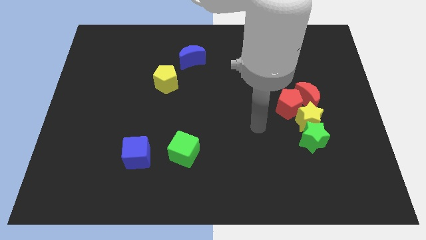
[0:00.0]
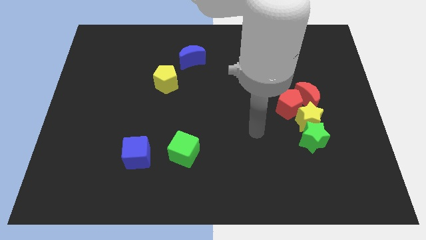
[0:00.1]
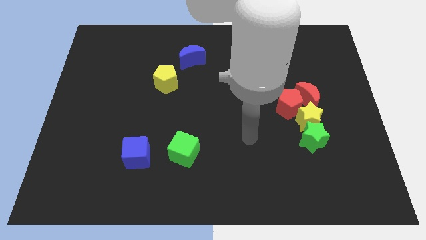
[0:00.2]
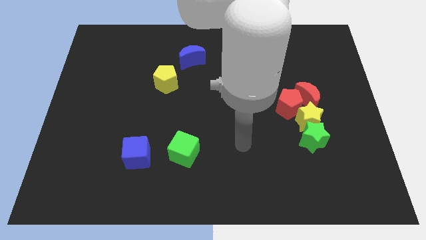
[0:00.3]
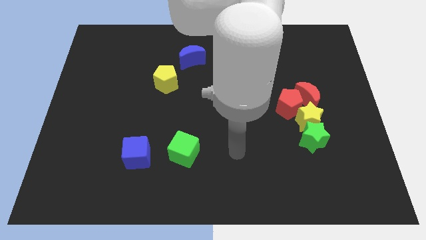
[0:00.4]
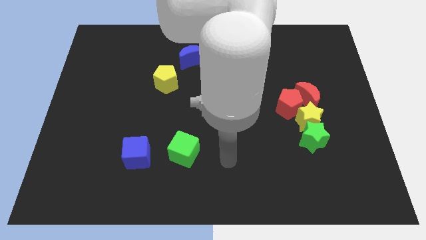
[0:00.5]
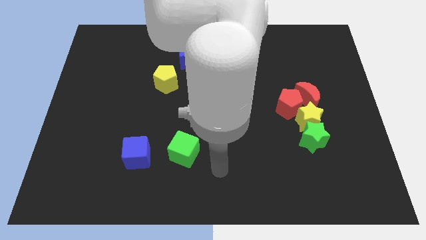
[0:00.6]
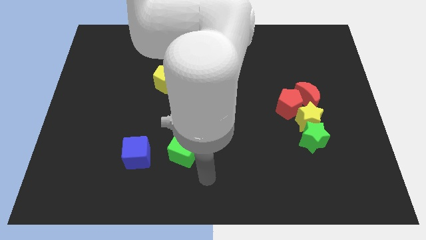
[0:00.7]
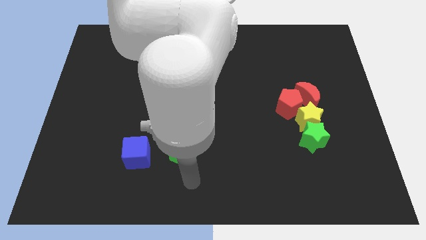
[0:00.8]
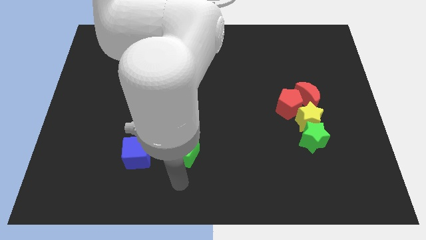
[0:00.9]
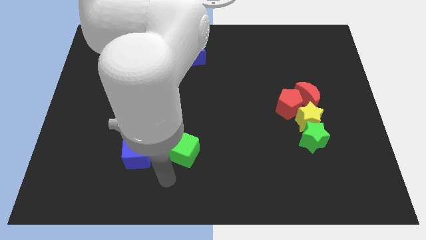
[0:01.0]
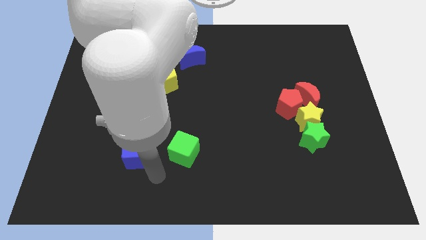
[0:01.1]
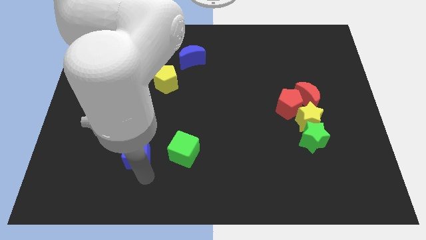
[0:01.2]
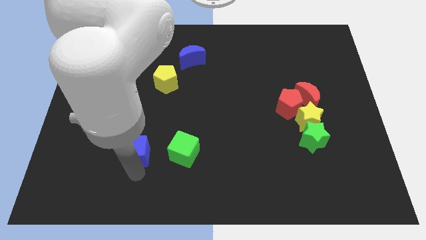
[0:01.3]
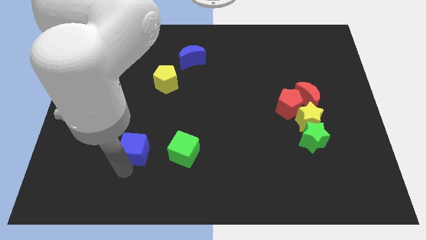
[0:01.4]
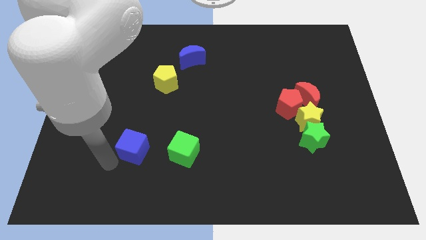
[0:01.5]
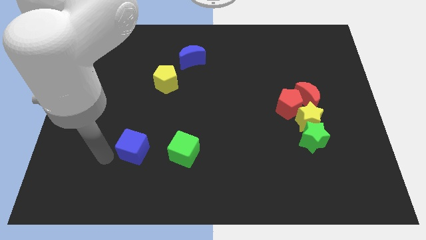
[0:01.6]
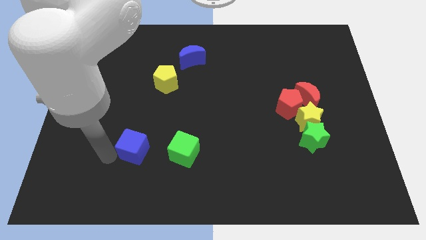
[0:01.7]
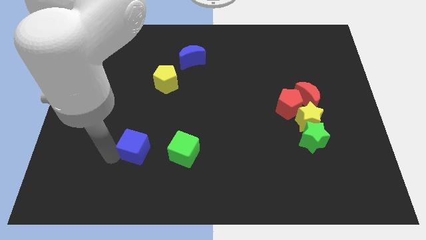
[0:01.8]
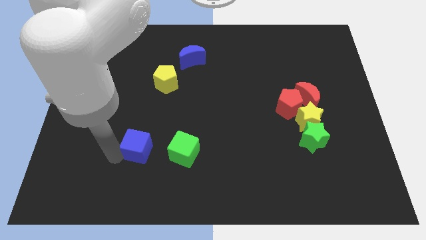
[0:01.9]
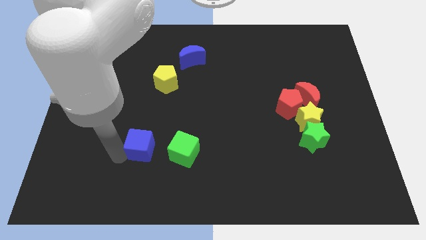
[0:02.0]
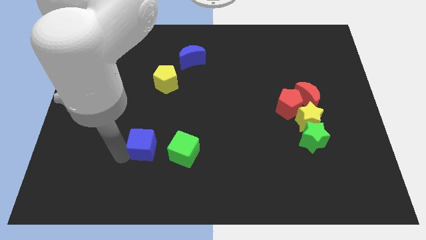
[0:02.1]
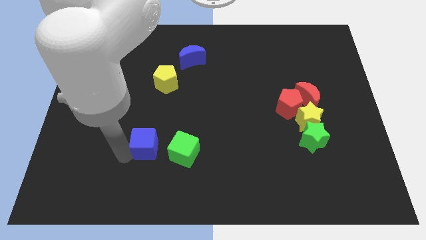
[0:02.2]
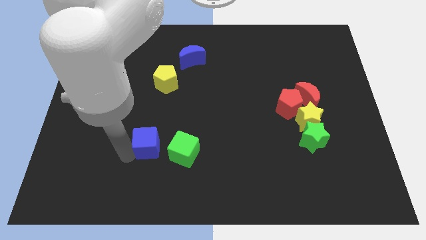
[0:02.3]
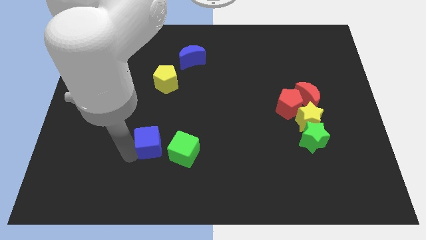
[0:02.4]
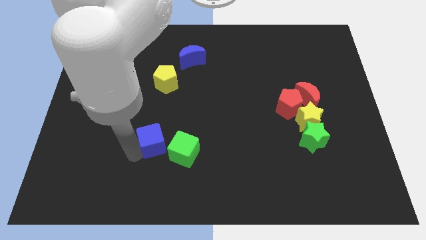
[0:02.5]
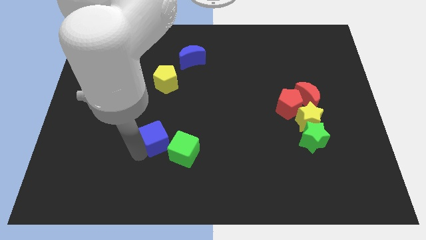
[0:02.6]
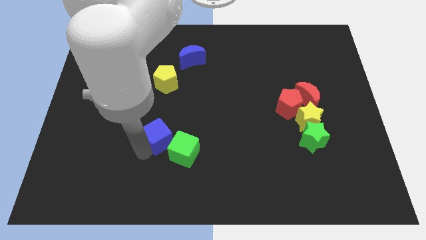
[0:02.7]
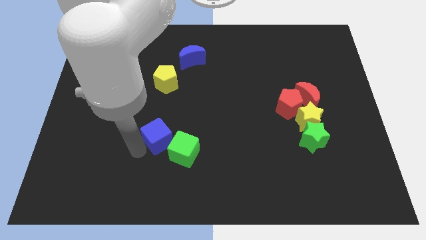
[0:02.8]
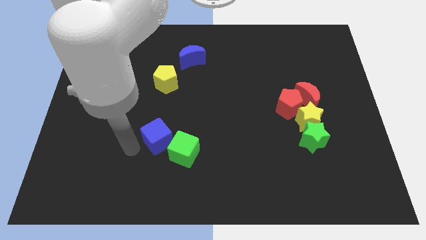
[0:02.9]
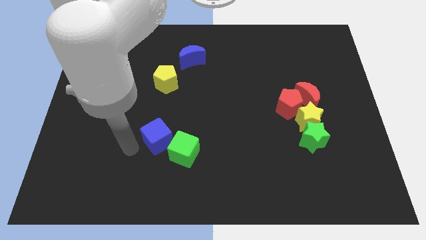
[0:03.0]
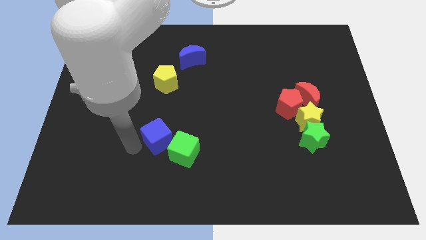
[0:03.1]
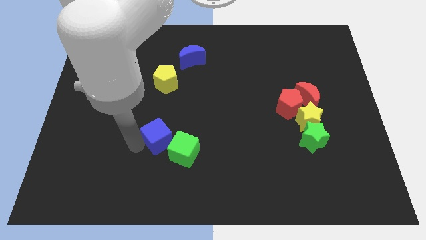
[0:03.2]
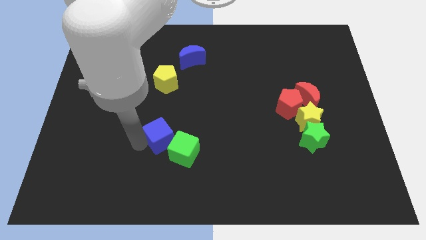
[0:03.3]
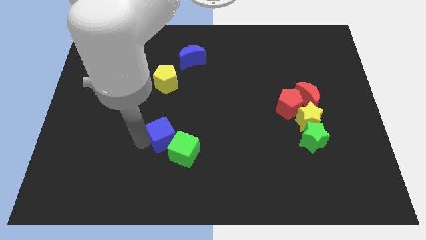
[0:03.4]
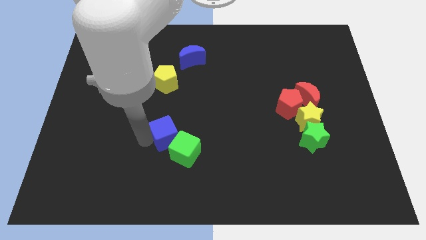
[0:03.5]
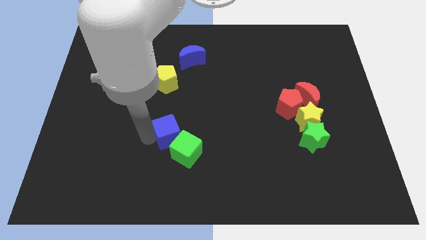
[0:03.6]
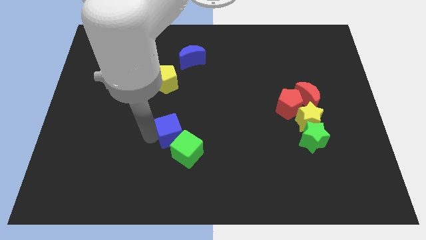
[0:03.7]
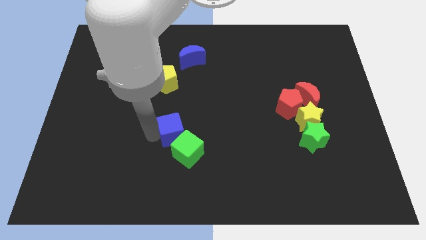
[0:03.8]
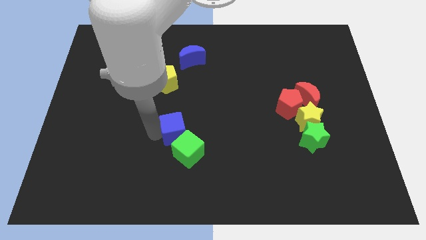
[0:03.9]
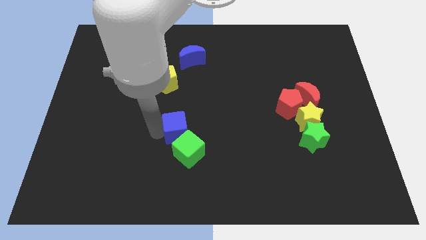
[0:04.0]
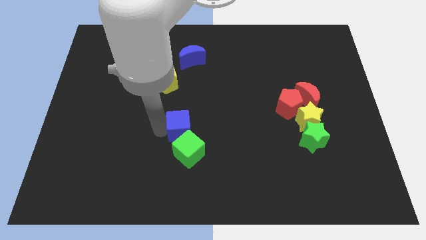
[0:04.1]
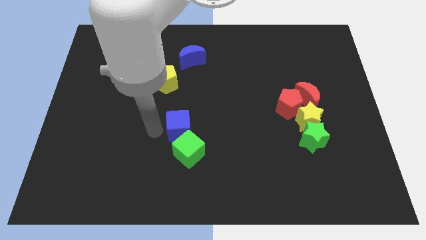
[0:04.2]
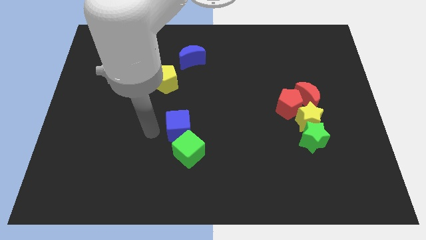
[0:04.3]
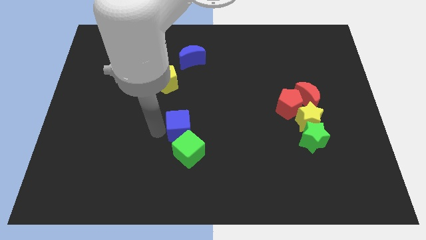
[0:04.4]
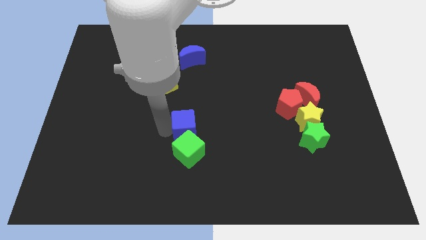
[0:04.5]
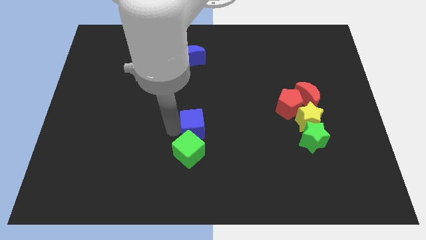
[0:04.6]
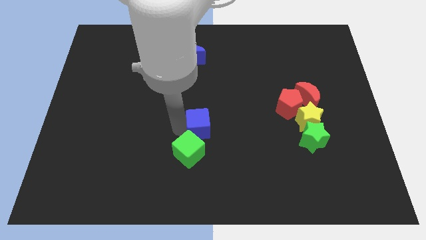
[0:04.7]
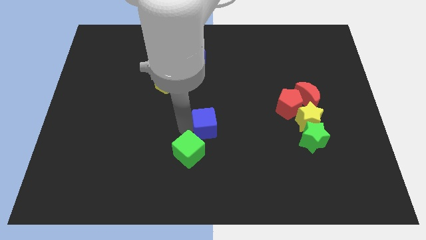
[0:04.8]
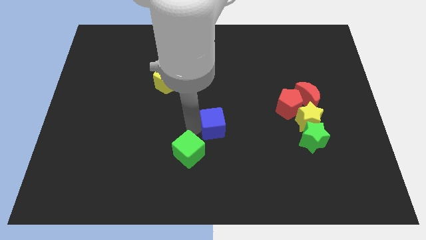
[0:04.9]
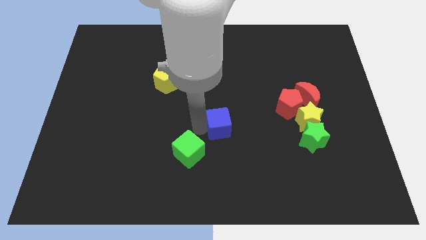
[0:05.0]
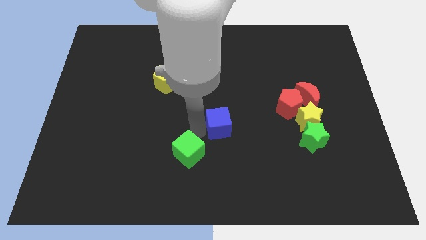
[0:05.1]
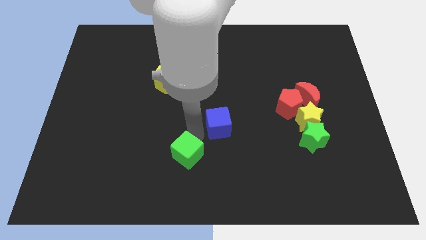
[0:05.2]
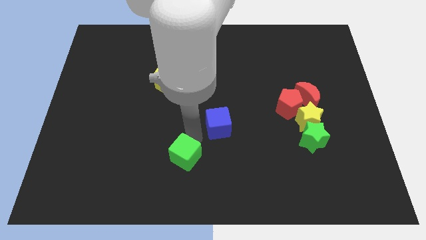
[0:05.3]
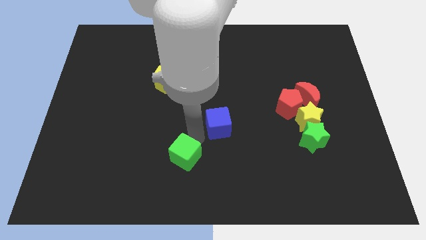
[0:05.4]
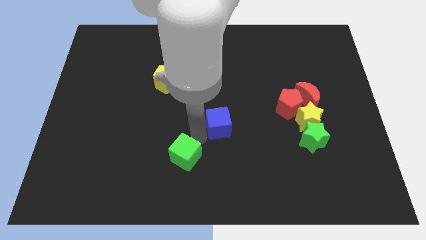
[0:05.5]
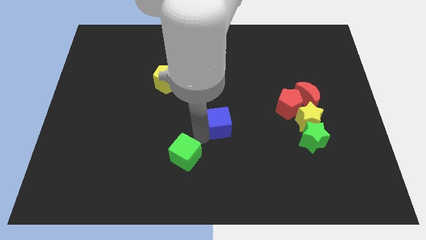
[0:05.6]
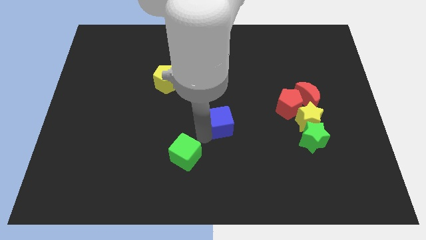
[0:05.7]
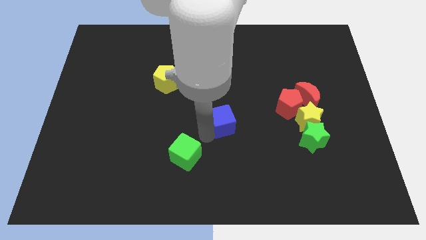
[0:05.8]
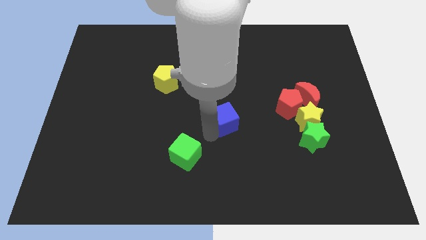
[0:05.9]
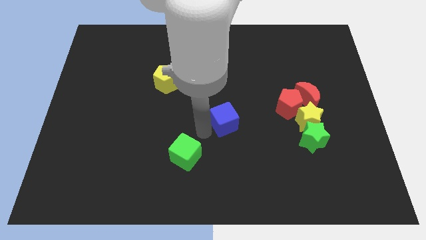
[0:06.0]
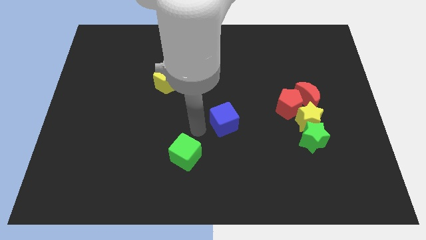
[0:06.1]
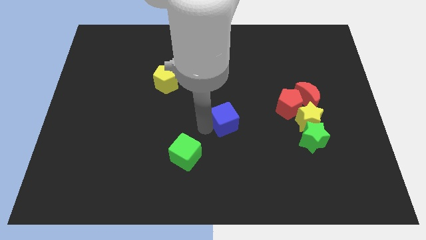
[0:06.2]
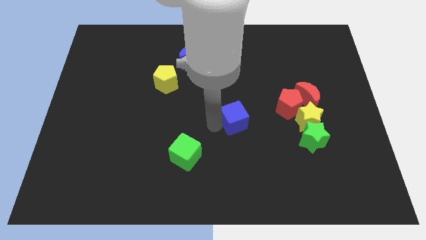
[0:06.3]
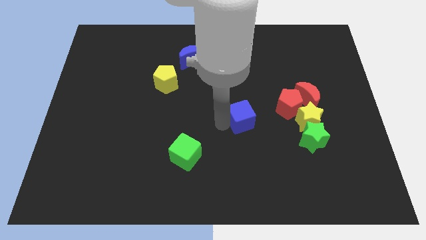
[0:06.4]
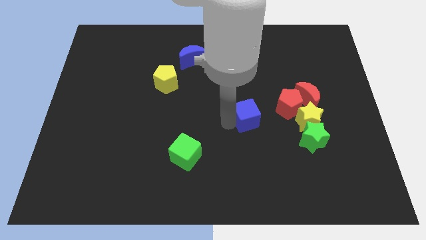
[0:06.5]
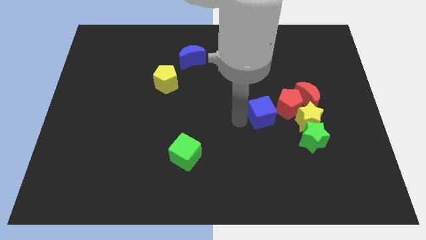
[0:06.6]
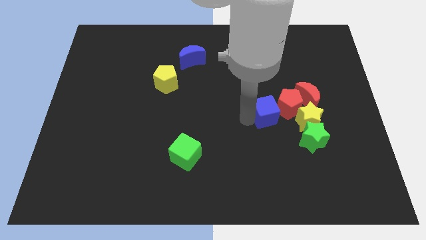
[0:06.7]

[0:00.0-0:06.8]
move the blue cube close to the red pentagon

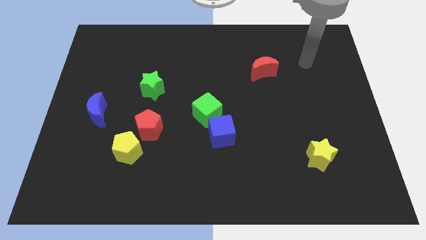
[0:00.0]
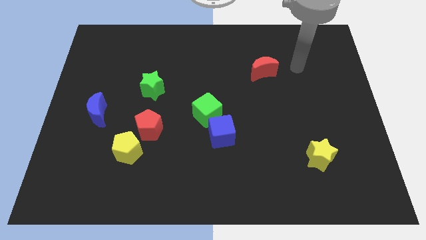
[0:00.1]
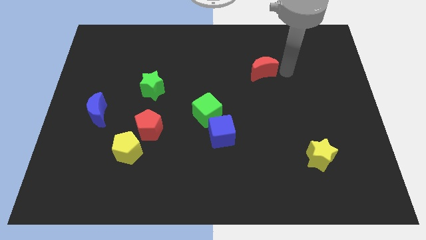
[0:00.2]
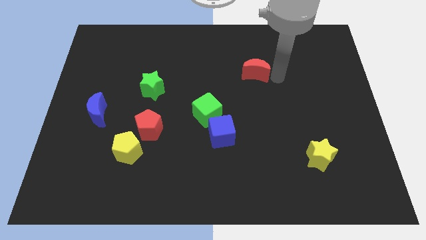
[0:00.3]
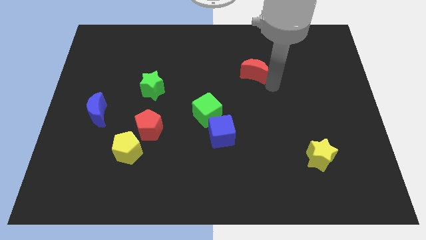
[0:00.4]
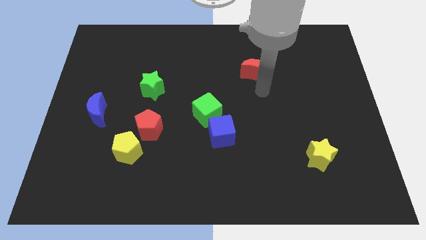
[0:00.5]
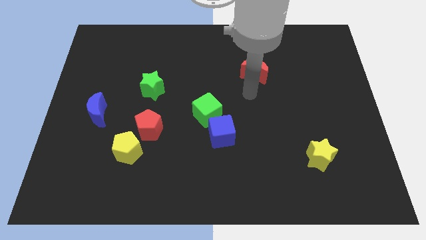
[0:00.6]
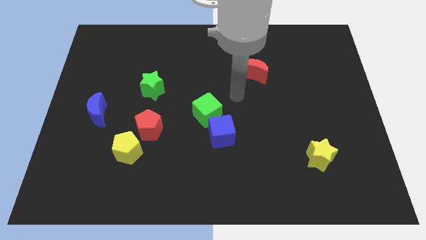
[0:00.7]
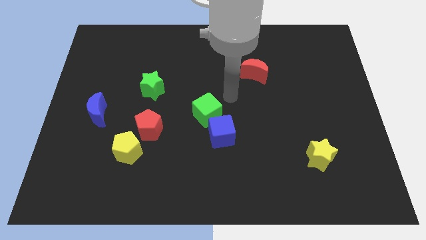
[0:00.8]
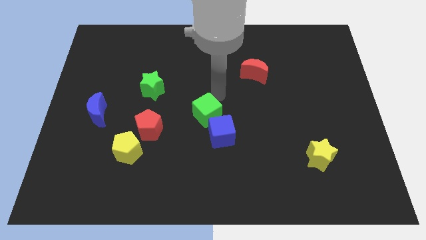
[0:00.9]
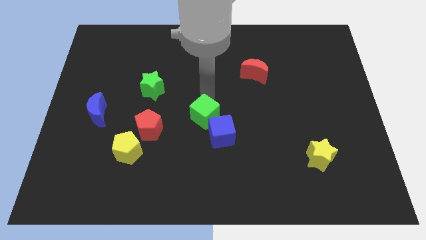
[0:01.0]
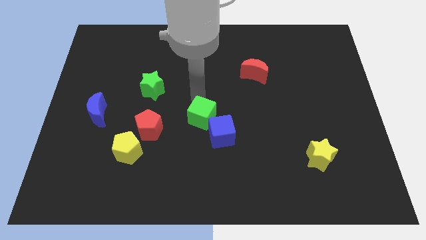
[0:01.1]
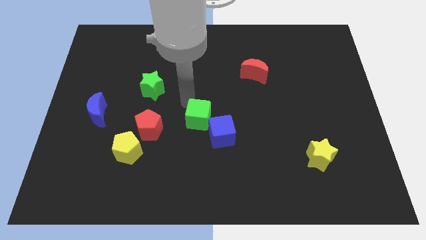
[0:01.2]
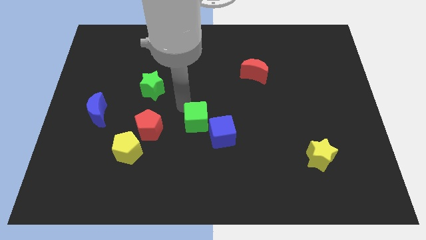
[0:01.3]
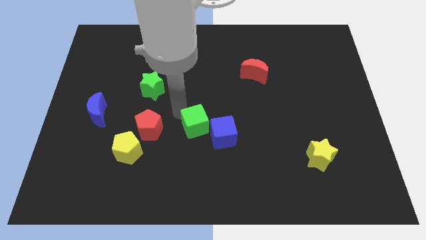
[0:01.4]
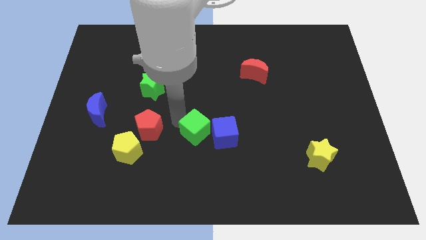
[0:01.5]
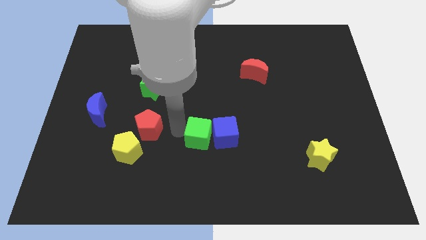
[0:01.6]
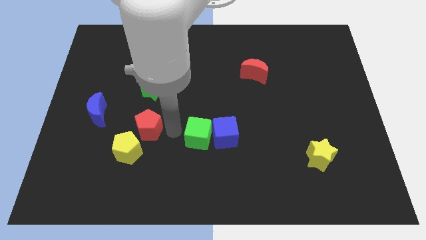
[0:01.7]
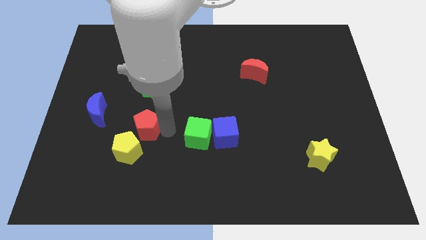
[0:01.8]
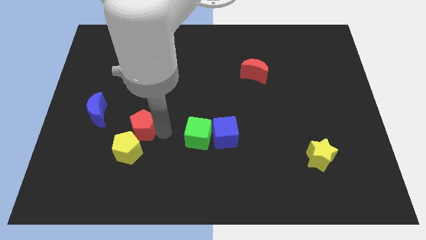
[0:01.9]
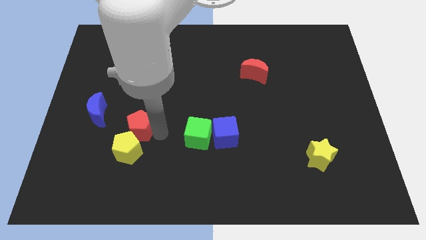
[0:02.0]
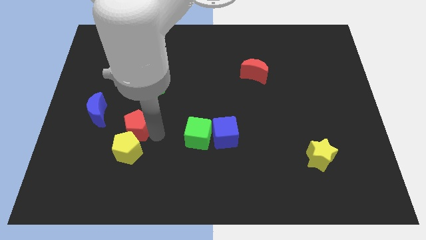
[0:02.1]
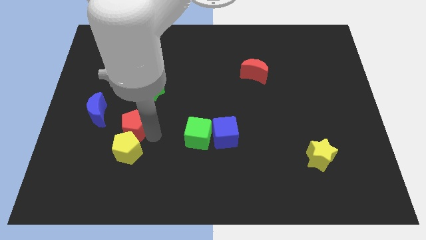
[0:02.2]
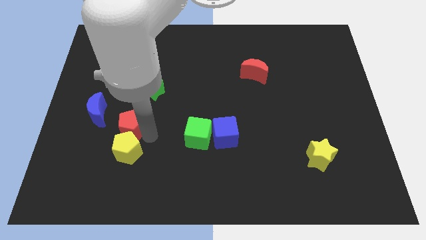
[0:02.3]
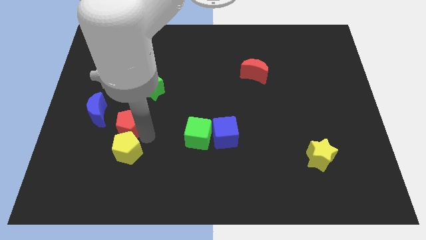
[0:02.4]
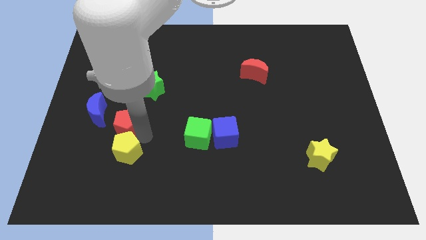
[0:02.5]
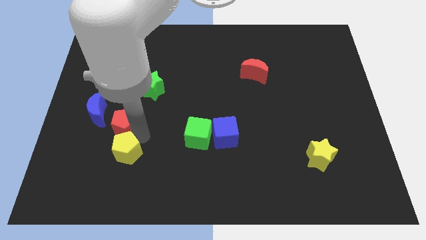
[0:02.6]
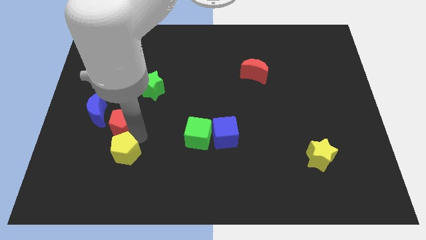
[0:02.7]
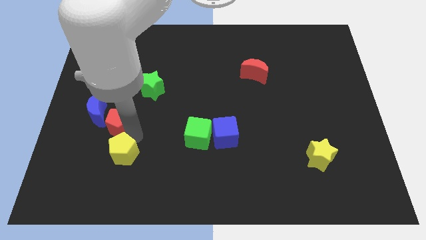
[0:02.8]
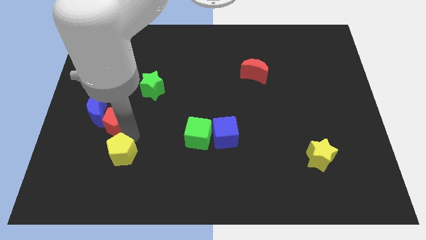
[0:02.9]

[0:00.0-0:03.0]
move the red pentagon next to the blue moon
